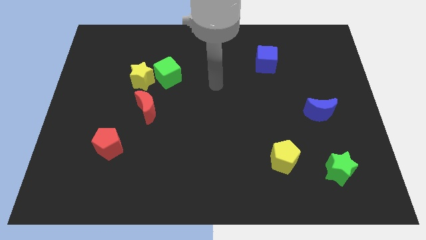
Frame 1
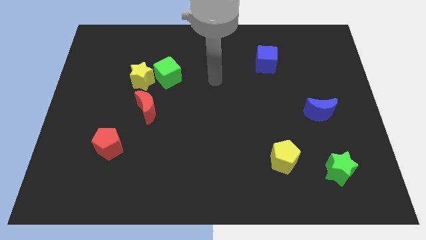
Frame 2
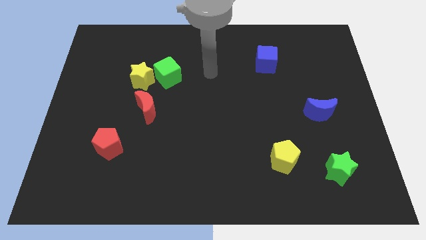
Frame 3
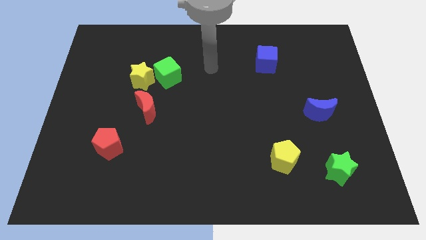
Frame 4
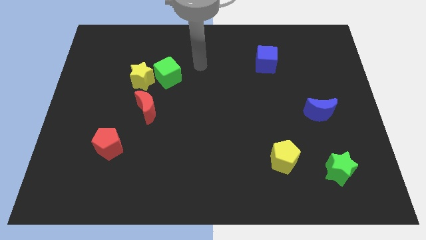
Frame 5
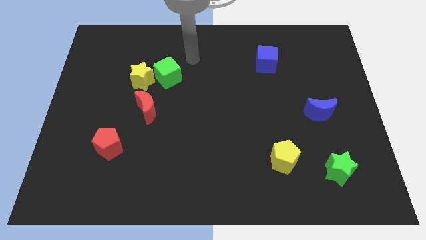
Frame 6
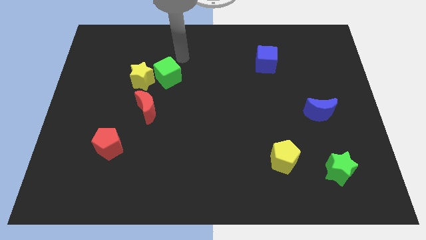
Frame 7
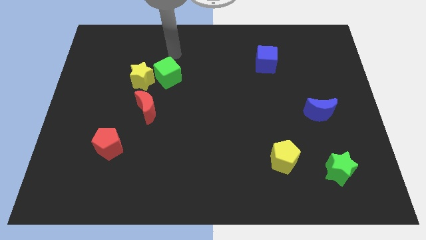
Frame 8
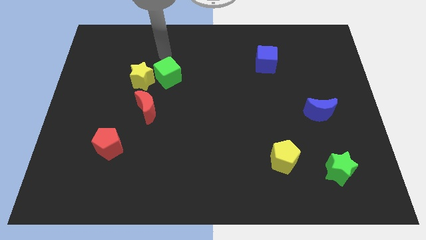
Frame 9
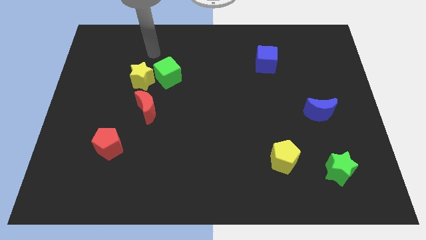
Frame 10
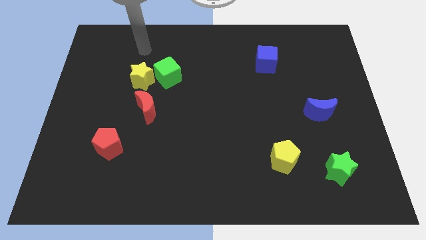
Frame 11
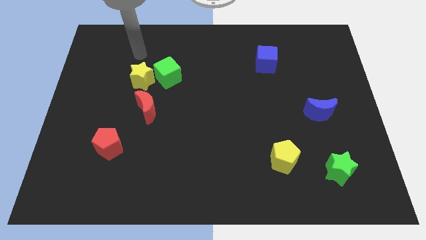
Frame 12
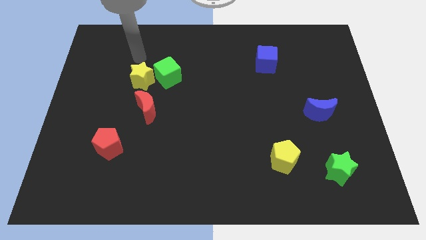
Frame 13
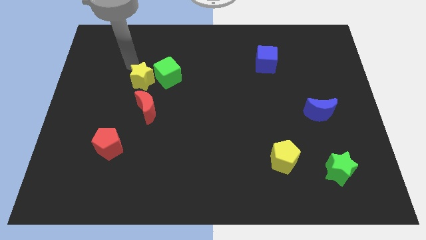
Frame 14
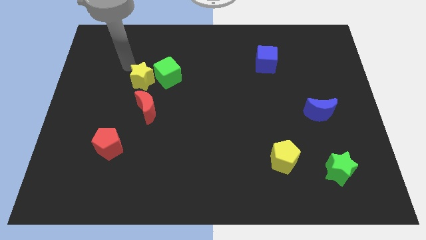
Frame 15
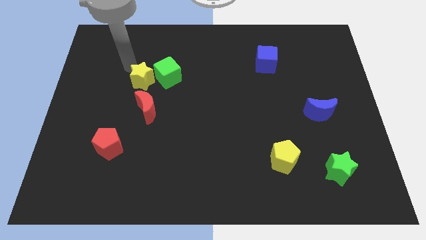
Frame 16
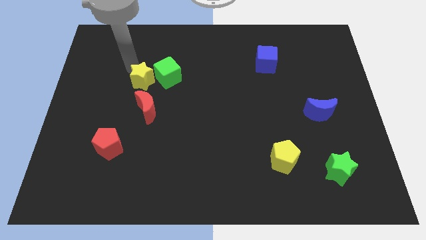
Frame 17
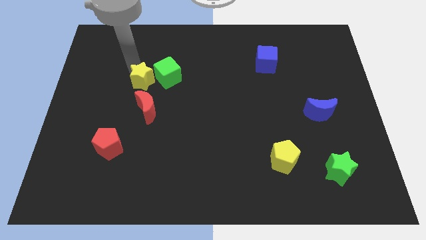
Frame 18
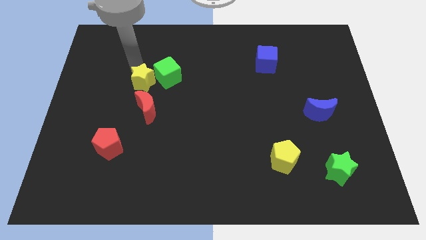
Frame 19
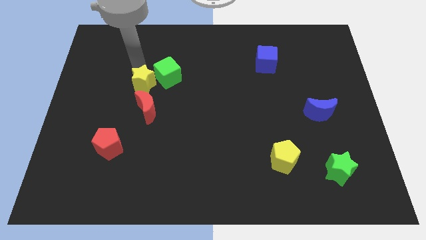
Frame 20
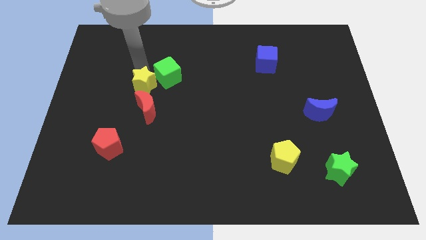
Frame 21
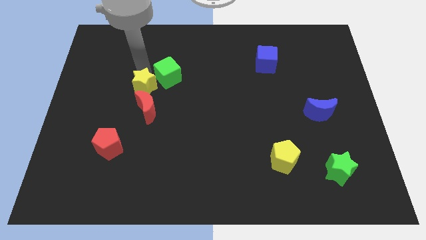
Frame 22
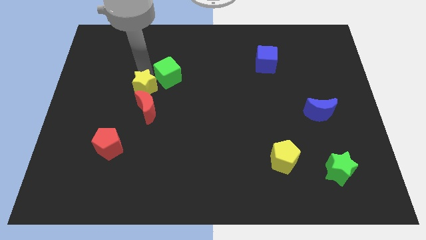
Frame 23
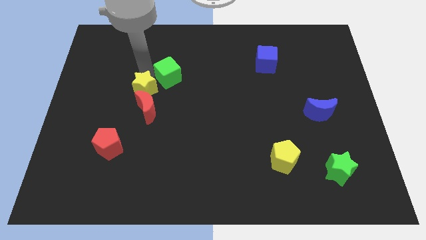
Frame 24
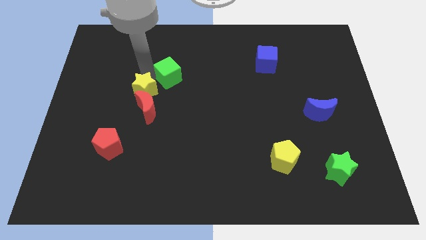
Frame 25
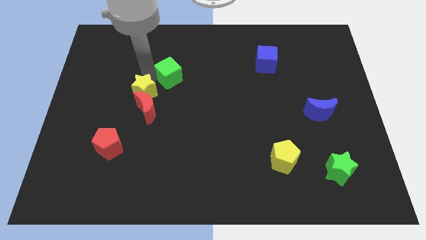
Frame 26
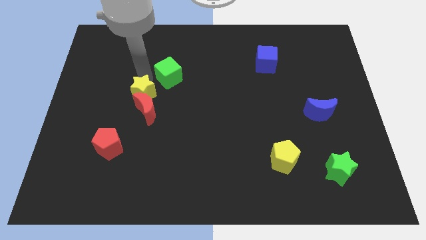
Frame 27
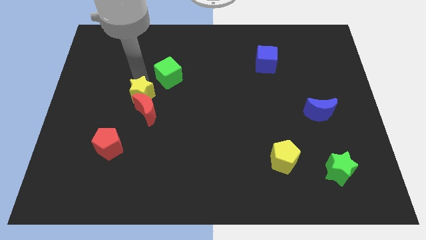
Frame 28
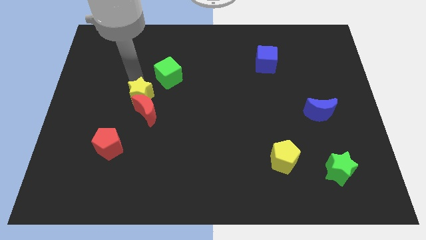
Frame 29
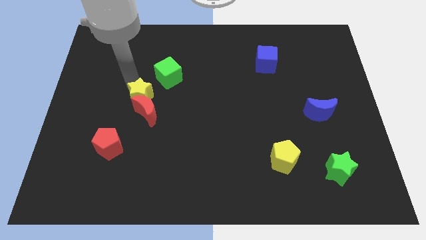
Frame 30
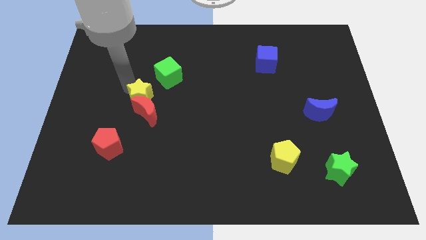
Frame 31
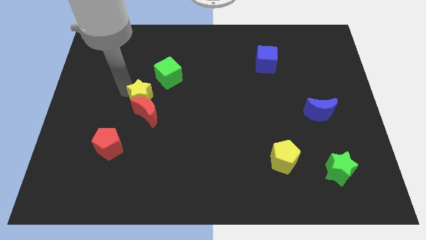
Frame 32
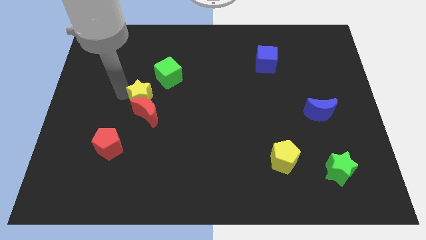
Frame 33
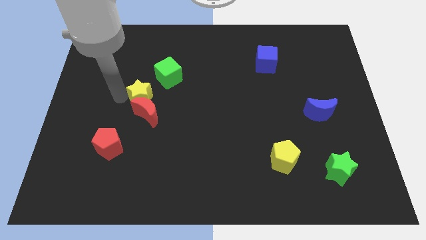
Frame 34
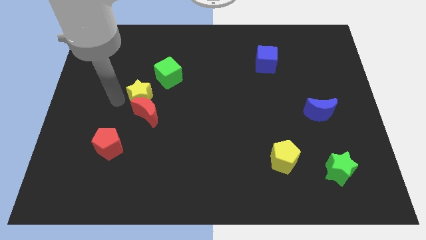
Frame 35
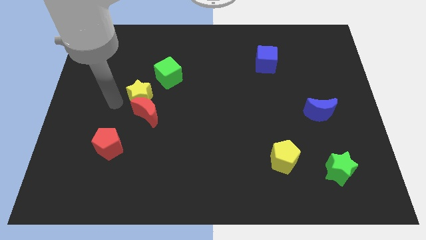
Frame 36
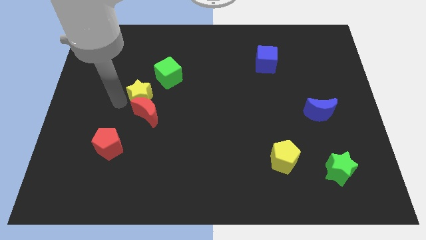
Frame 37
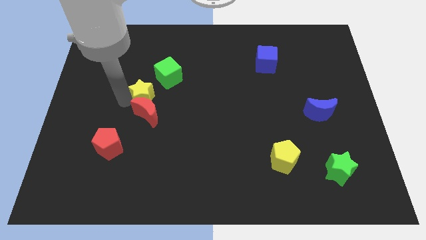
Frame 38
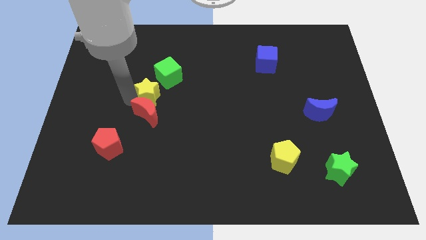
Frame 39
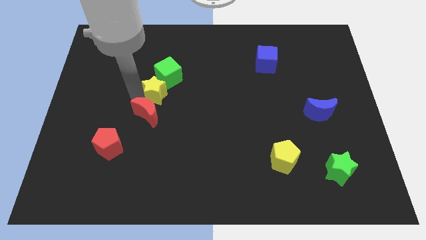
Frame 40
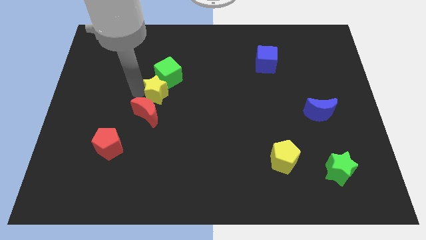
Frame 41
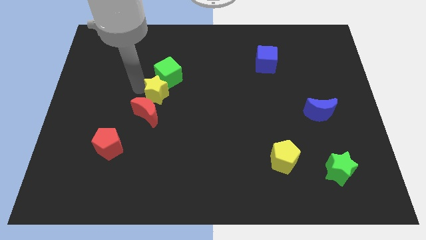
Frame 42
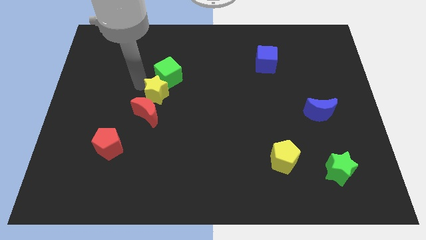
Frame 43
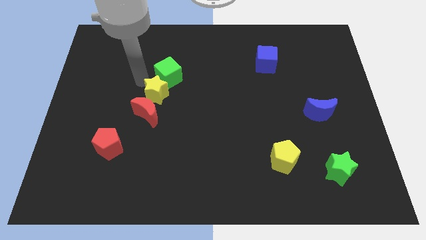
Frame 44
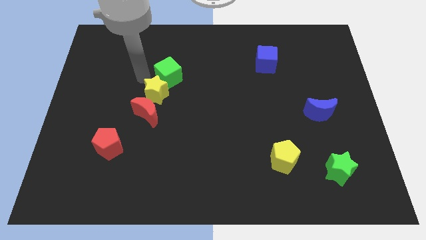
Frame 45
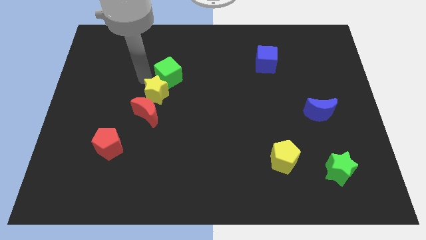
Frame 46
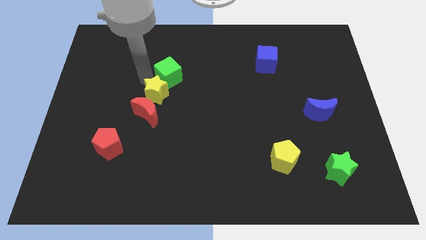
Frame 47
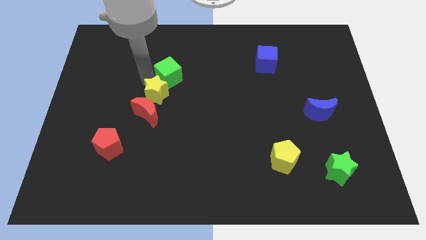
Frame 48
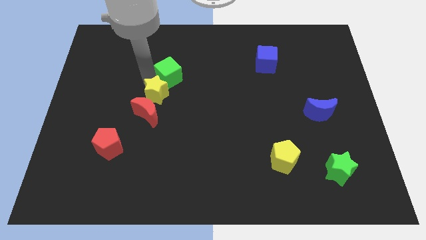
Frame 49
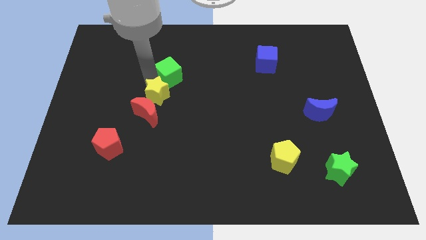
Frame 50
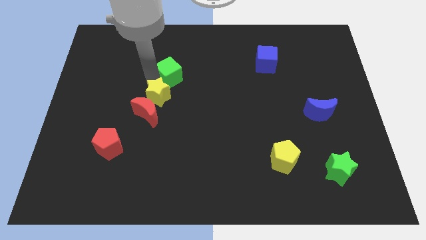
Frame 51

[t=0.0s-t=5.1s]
move the yellow star downwards and then right a bit

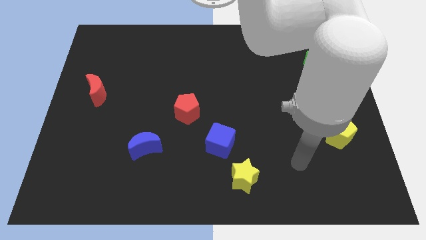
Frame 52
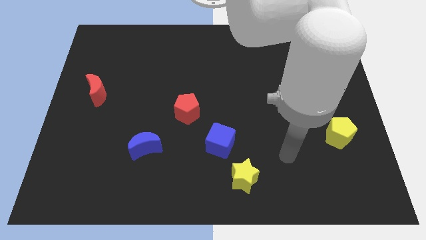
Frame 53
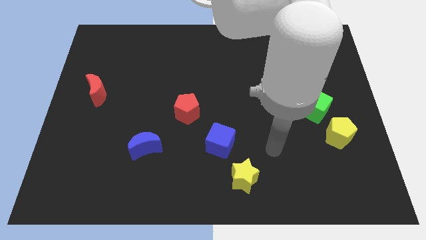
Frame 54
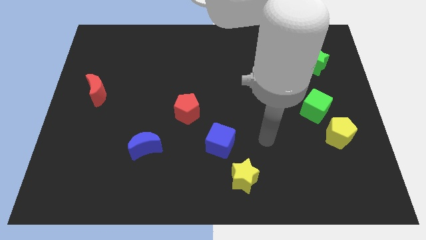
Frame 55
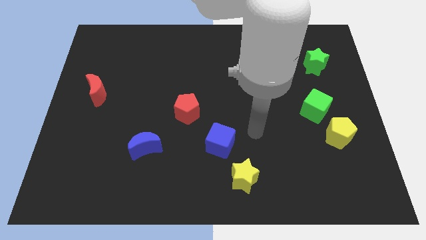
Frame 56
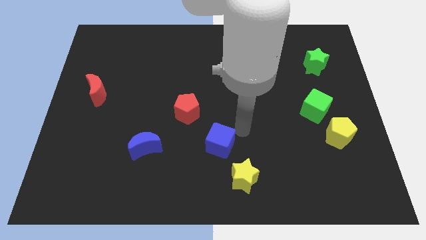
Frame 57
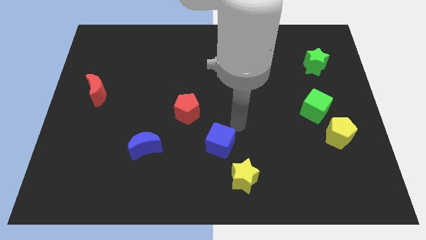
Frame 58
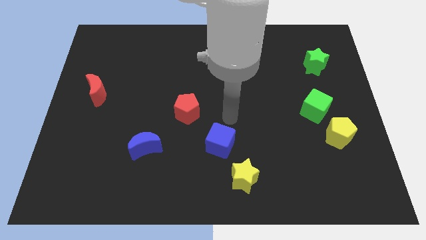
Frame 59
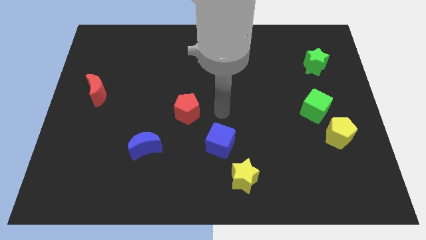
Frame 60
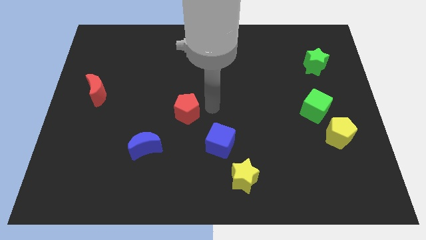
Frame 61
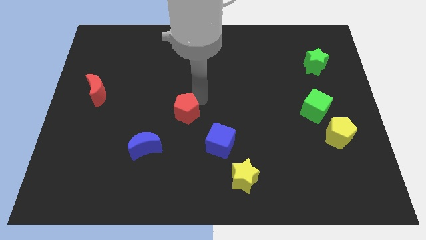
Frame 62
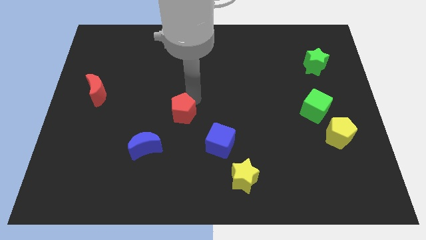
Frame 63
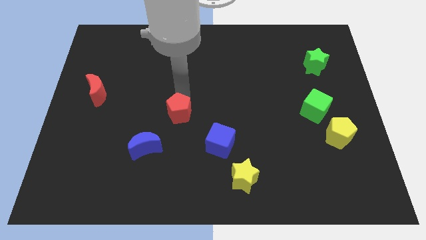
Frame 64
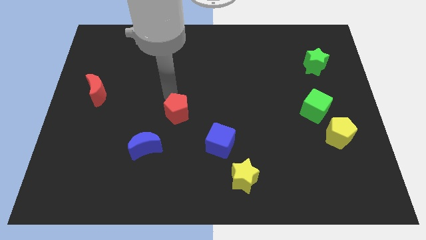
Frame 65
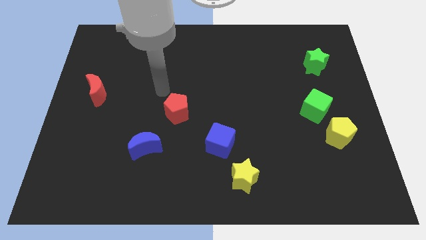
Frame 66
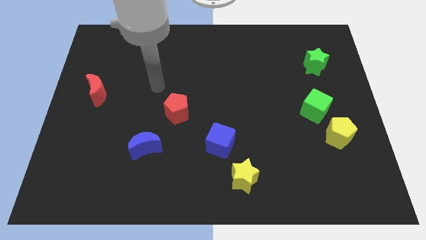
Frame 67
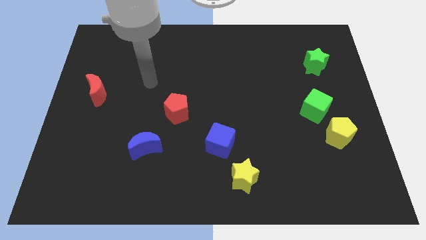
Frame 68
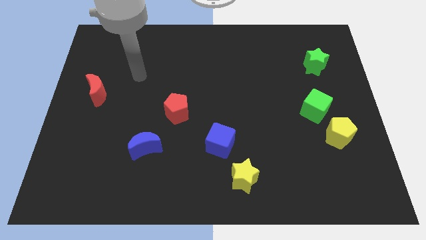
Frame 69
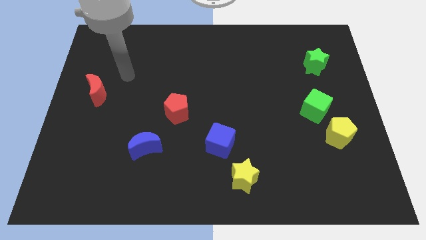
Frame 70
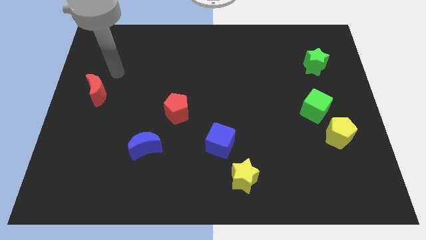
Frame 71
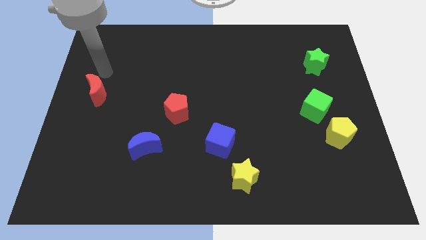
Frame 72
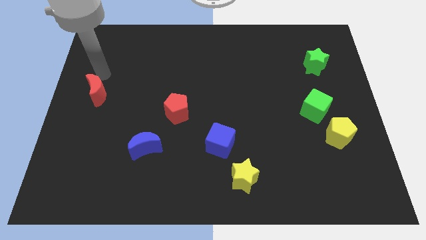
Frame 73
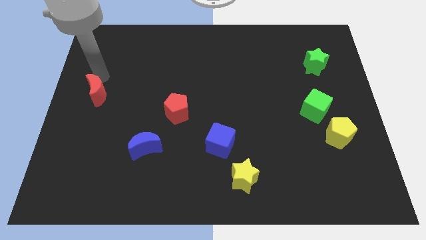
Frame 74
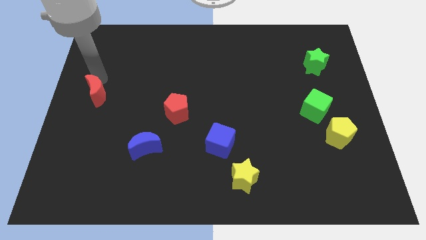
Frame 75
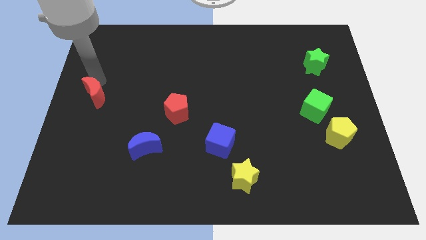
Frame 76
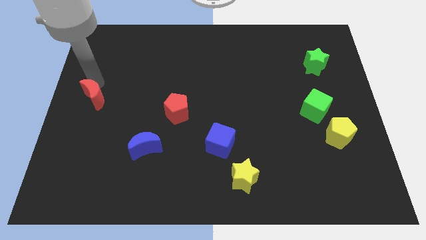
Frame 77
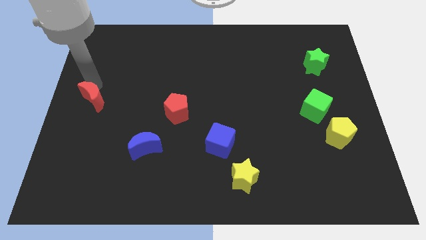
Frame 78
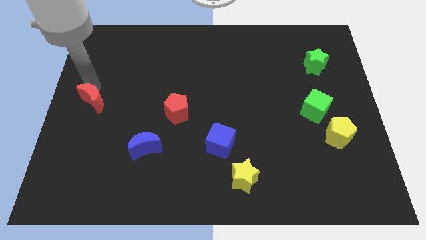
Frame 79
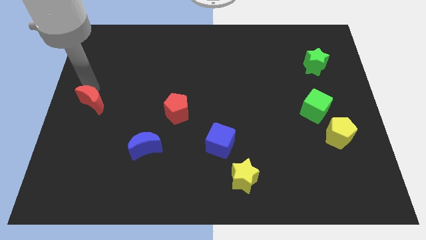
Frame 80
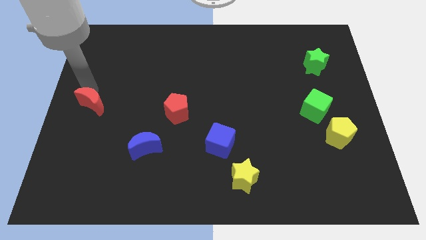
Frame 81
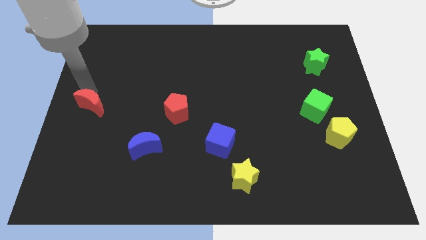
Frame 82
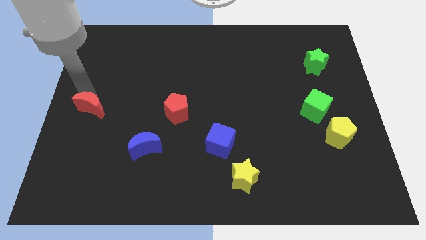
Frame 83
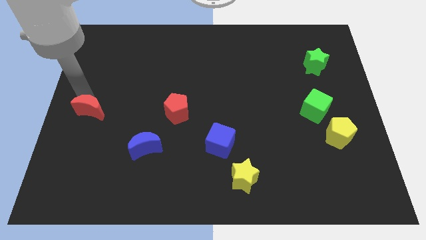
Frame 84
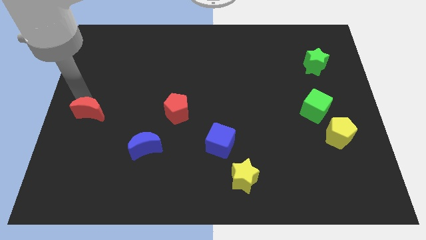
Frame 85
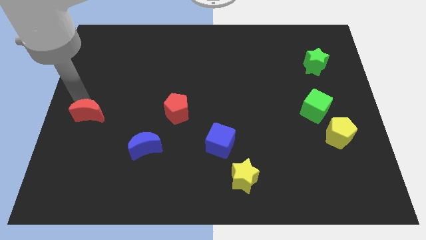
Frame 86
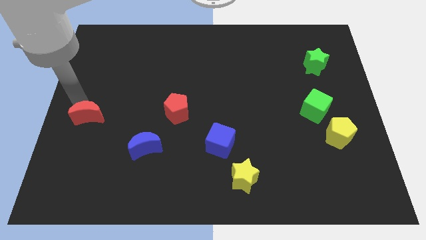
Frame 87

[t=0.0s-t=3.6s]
push the red moon a bit downwards
